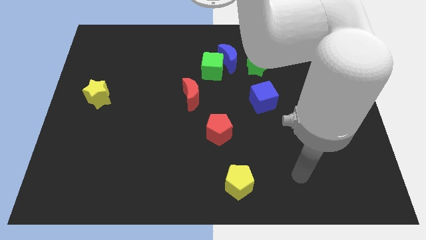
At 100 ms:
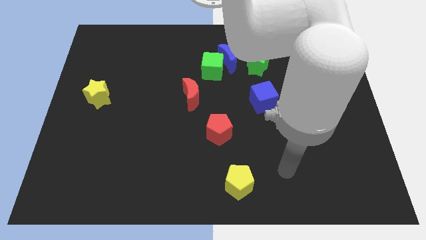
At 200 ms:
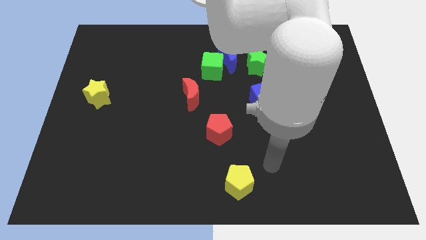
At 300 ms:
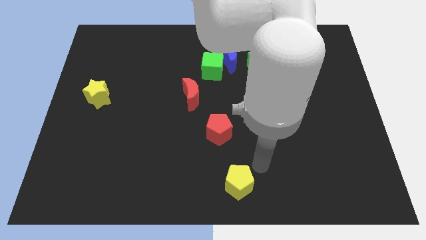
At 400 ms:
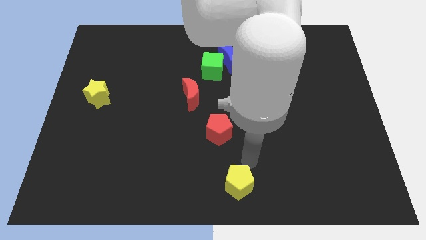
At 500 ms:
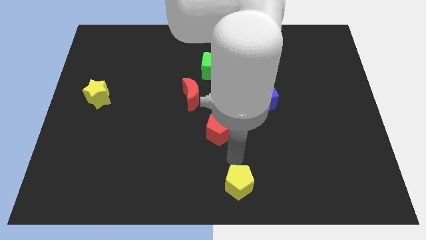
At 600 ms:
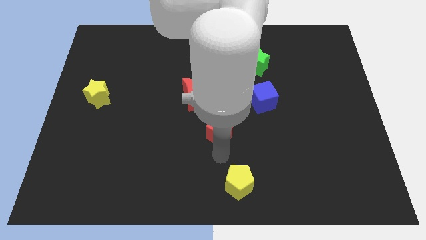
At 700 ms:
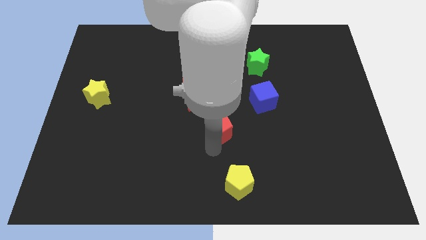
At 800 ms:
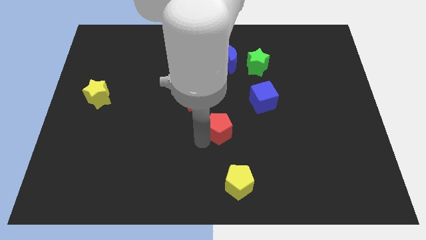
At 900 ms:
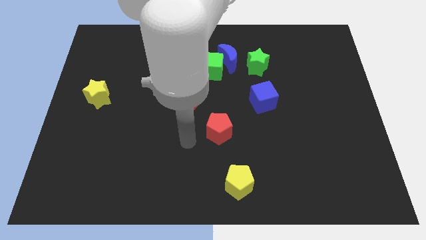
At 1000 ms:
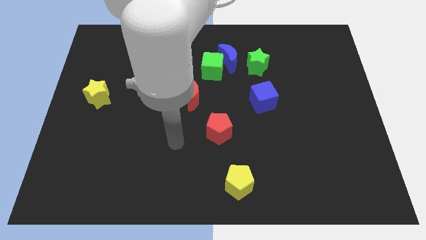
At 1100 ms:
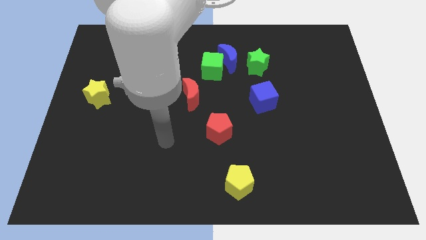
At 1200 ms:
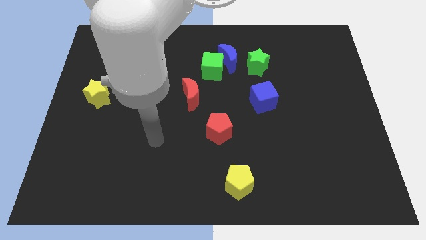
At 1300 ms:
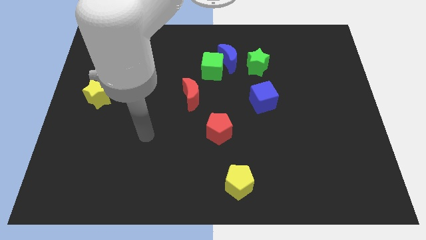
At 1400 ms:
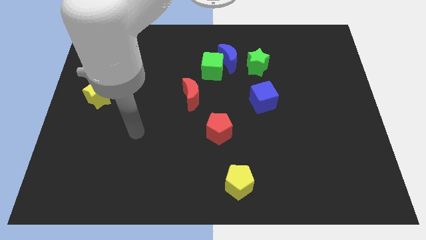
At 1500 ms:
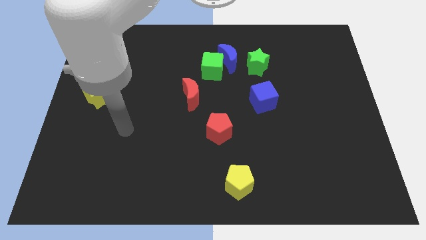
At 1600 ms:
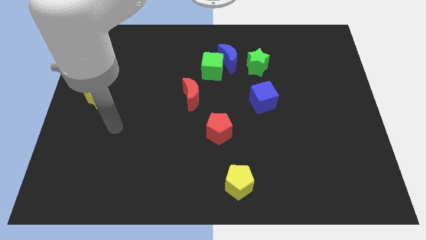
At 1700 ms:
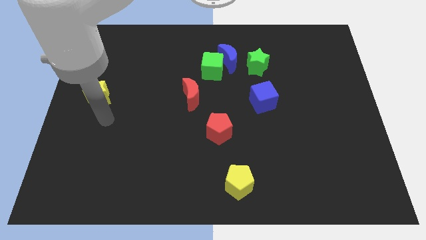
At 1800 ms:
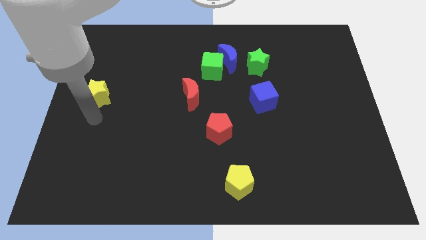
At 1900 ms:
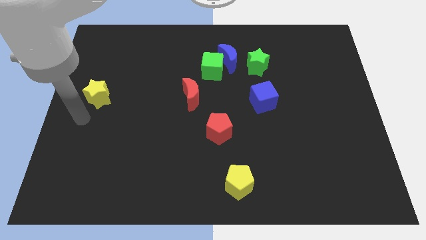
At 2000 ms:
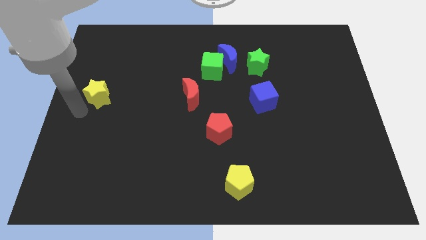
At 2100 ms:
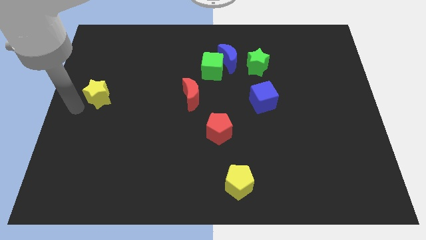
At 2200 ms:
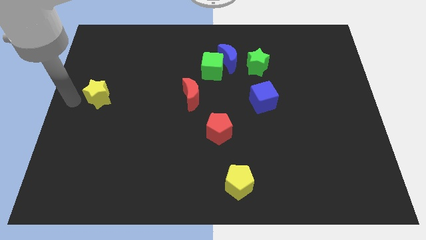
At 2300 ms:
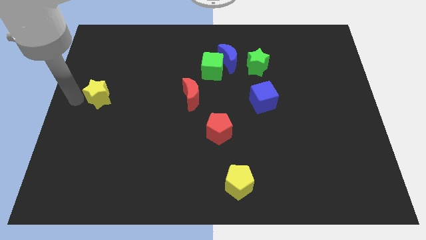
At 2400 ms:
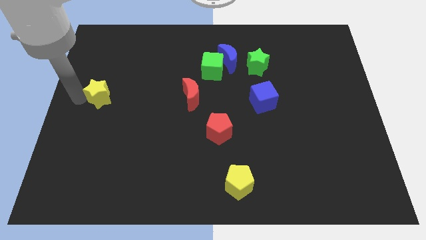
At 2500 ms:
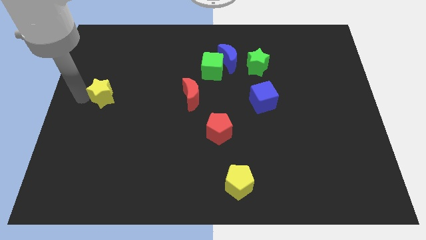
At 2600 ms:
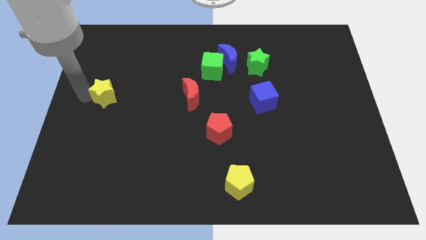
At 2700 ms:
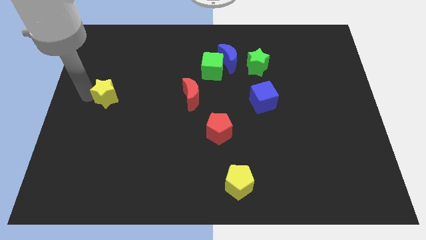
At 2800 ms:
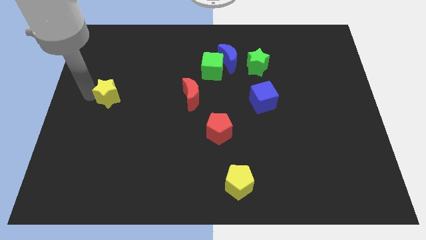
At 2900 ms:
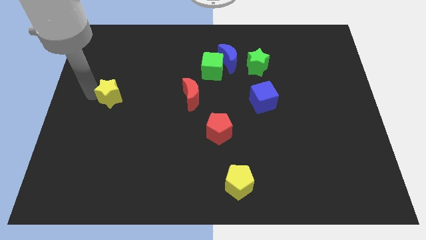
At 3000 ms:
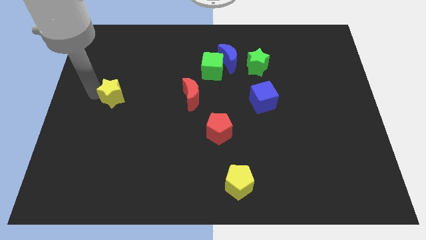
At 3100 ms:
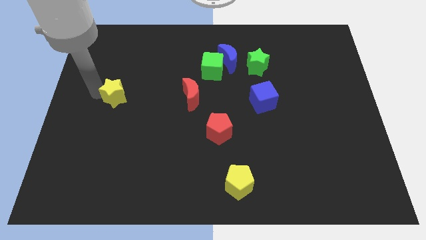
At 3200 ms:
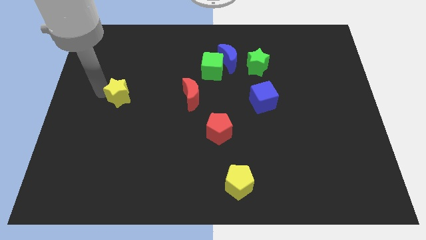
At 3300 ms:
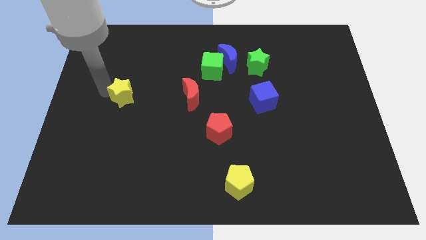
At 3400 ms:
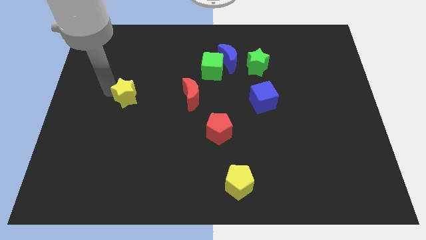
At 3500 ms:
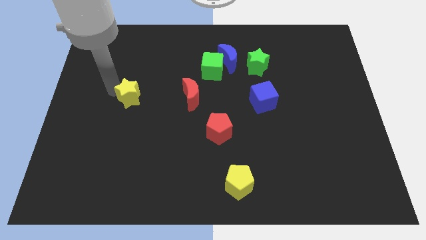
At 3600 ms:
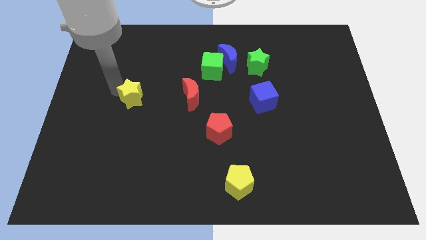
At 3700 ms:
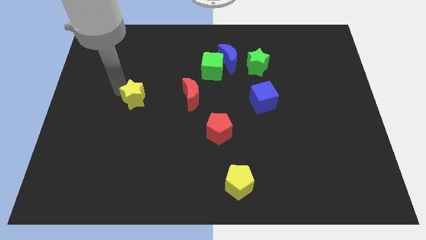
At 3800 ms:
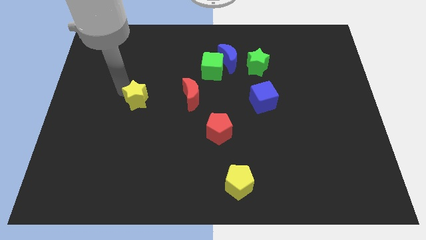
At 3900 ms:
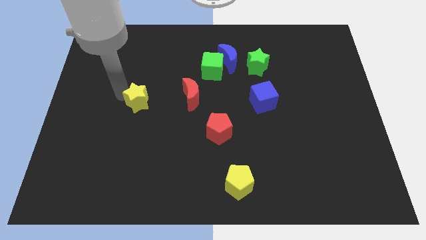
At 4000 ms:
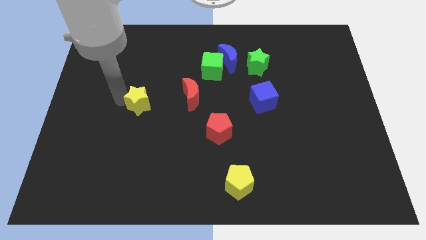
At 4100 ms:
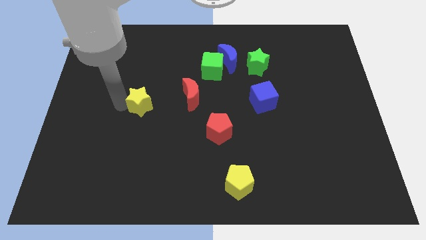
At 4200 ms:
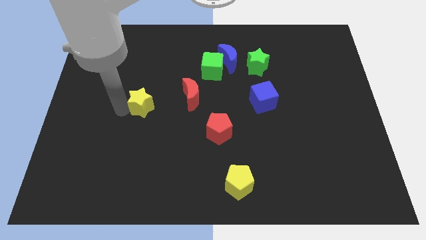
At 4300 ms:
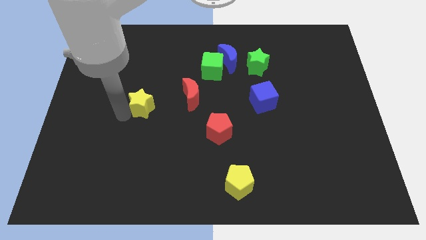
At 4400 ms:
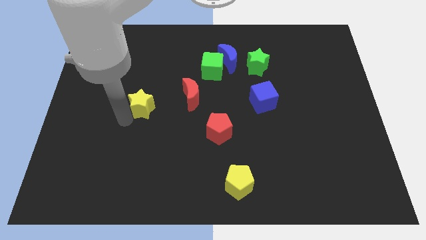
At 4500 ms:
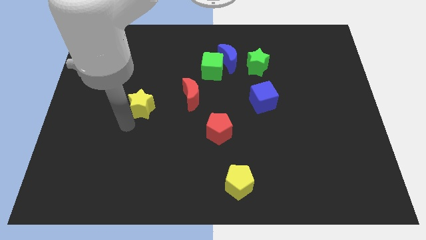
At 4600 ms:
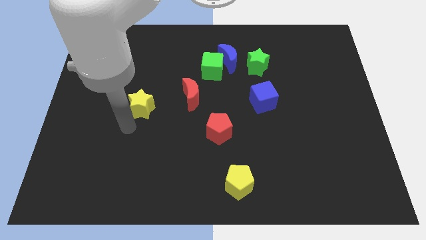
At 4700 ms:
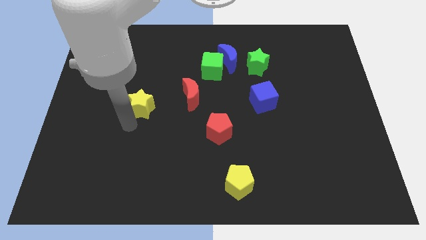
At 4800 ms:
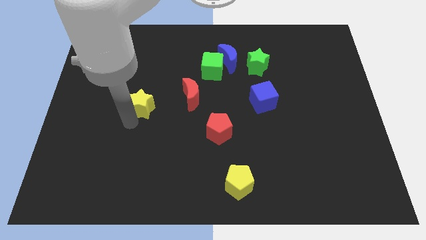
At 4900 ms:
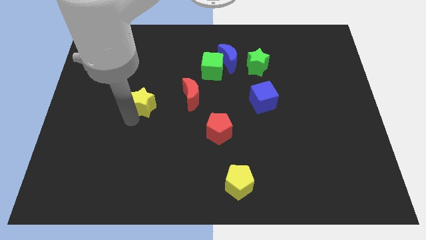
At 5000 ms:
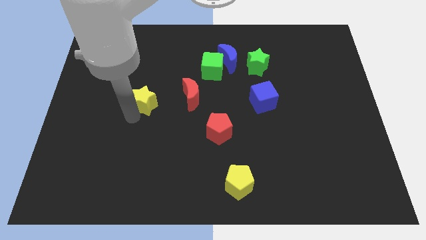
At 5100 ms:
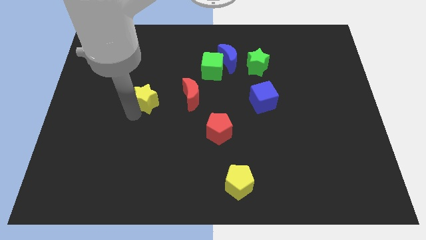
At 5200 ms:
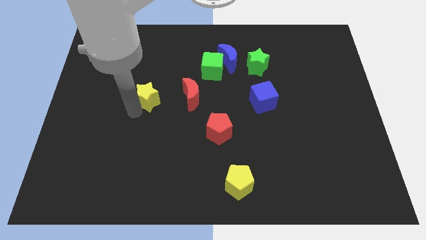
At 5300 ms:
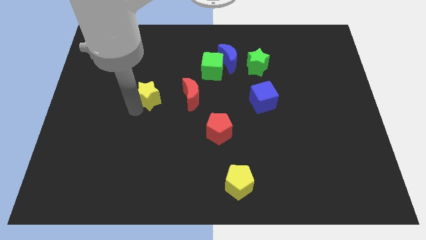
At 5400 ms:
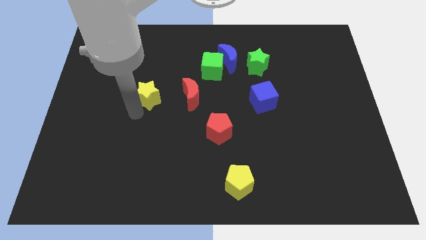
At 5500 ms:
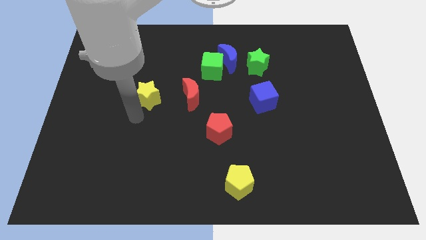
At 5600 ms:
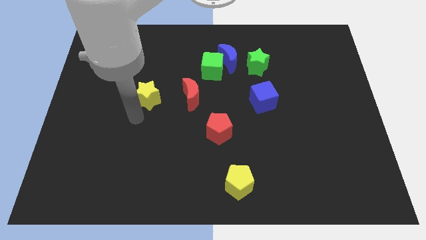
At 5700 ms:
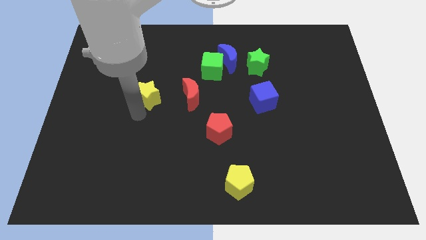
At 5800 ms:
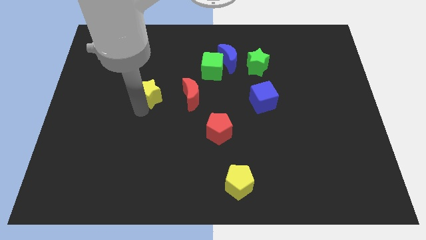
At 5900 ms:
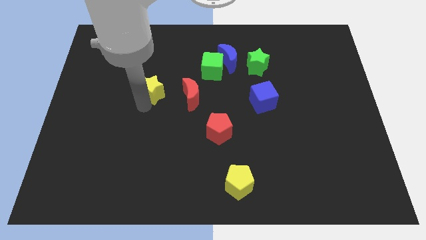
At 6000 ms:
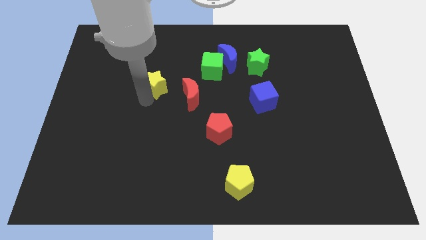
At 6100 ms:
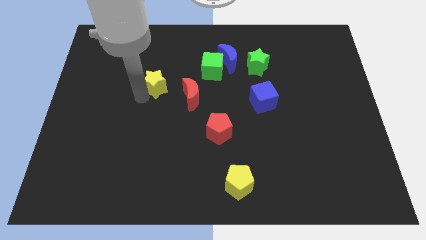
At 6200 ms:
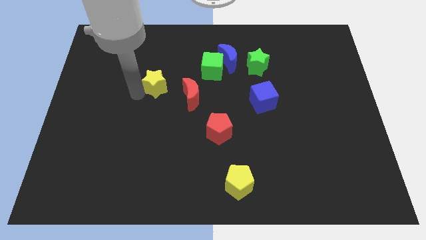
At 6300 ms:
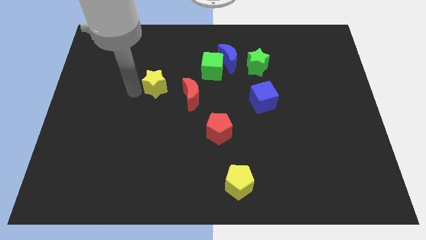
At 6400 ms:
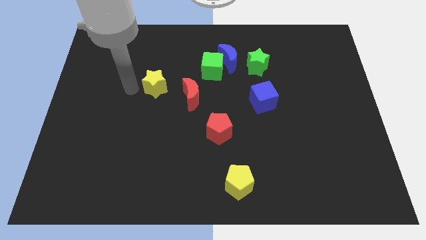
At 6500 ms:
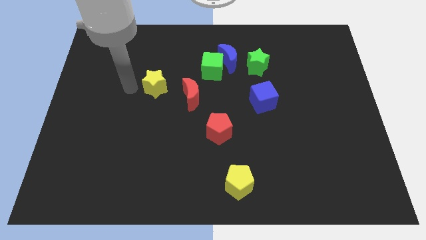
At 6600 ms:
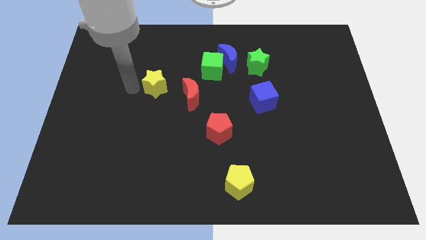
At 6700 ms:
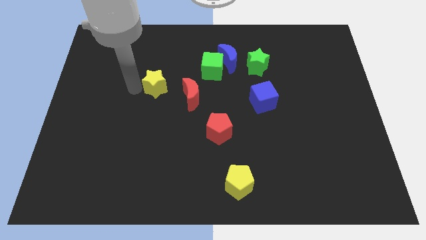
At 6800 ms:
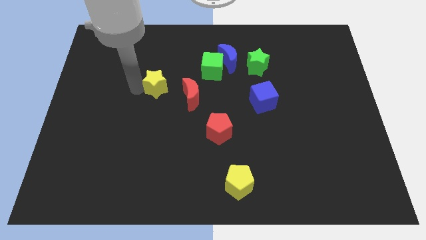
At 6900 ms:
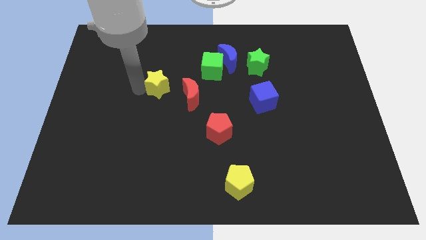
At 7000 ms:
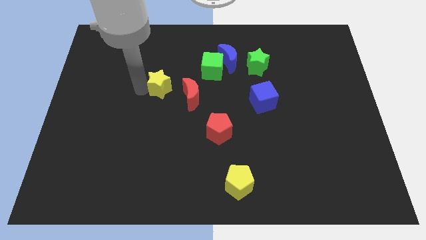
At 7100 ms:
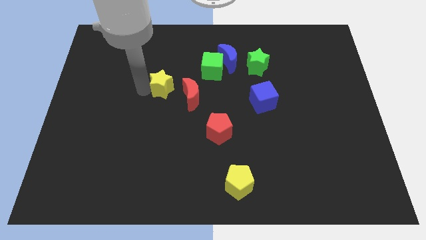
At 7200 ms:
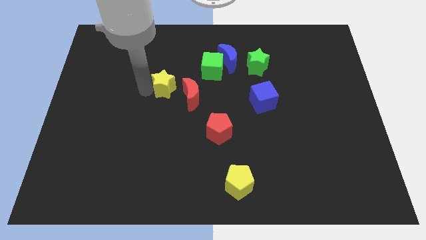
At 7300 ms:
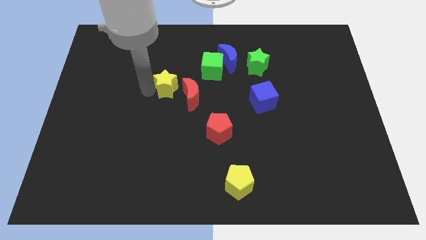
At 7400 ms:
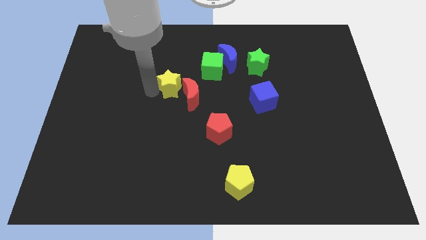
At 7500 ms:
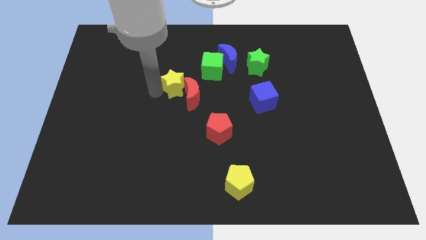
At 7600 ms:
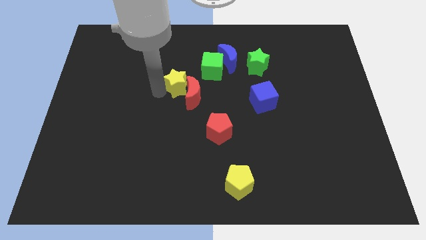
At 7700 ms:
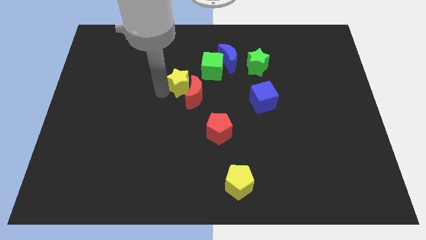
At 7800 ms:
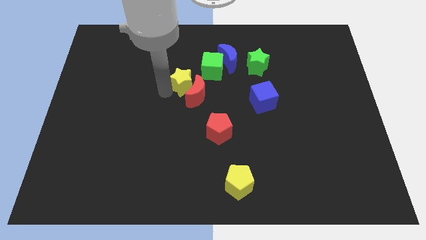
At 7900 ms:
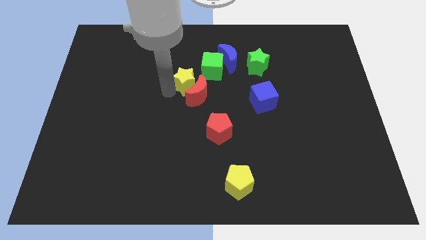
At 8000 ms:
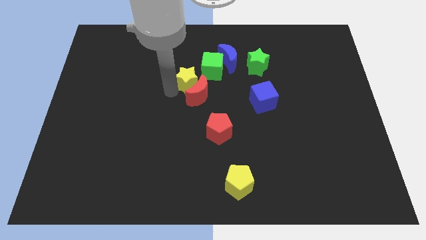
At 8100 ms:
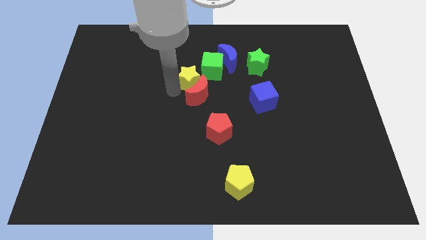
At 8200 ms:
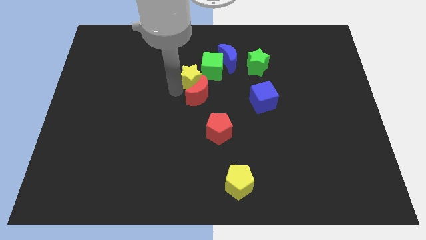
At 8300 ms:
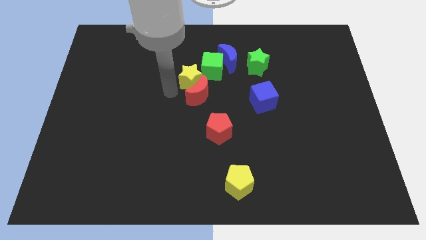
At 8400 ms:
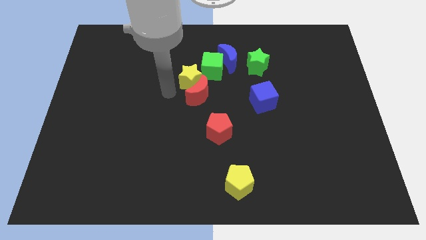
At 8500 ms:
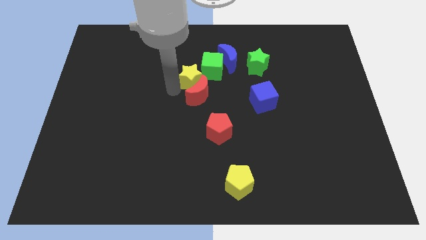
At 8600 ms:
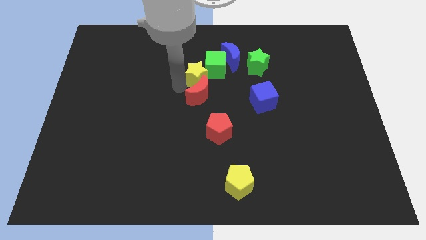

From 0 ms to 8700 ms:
put the yellow star to the green cube
